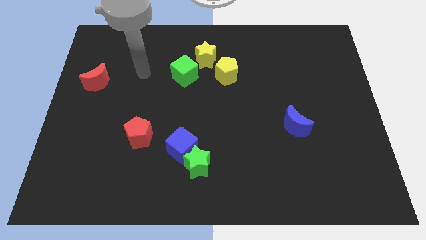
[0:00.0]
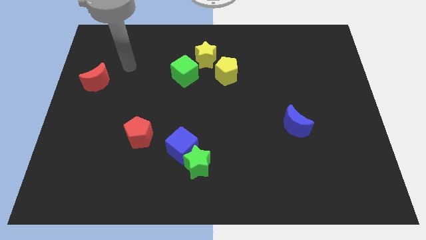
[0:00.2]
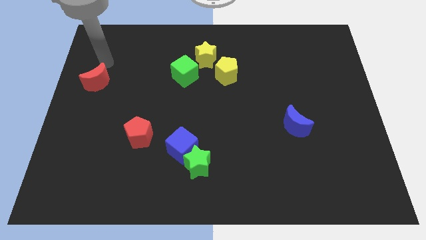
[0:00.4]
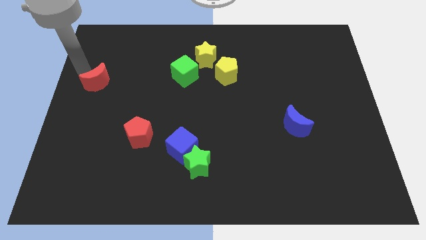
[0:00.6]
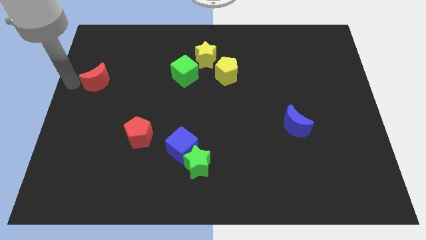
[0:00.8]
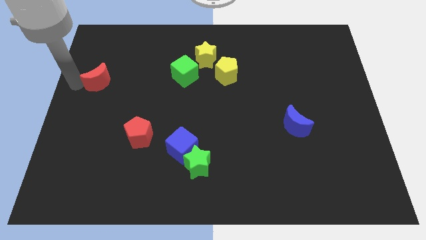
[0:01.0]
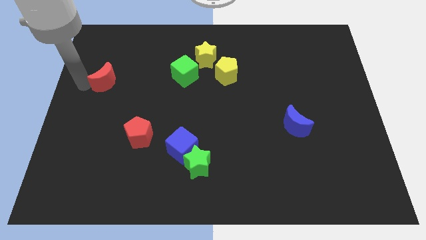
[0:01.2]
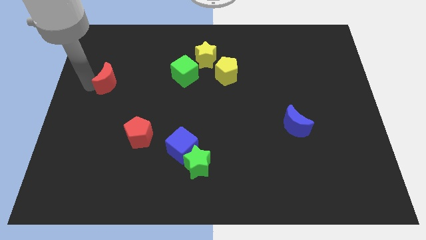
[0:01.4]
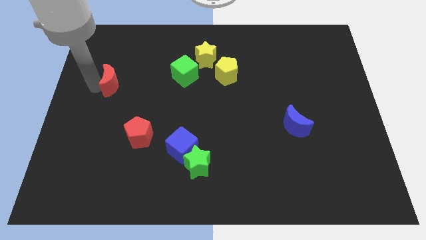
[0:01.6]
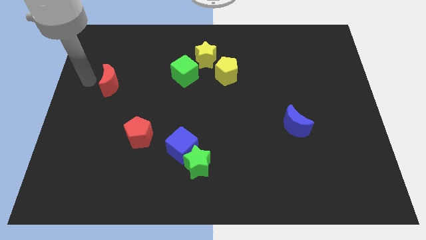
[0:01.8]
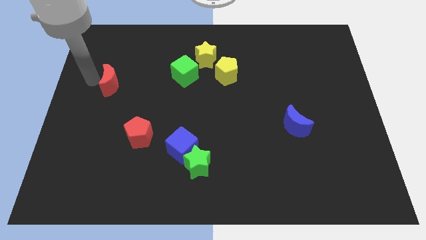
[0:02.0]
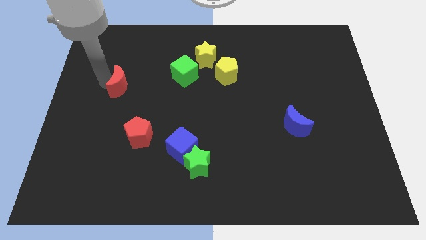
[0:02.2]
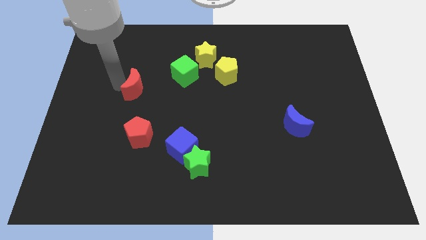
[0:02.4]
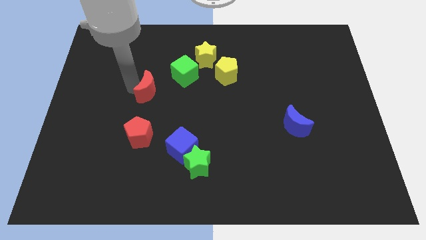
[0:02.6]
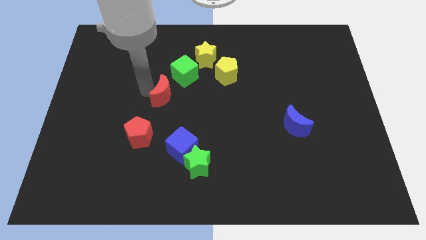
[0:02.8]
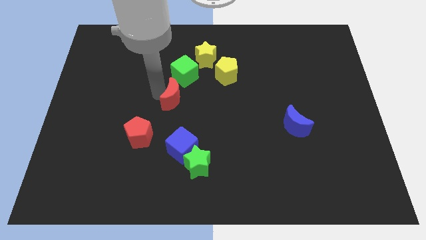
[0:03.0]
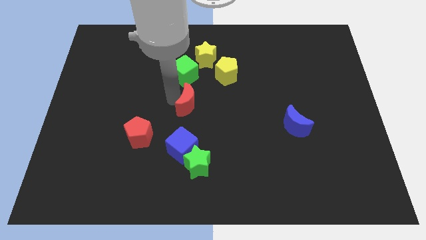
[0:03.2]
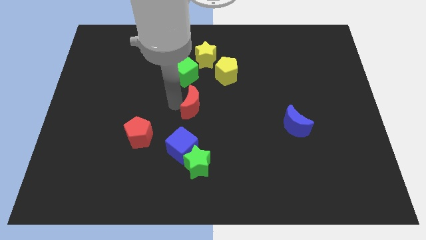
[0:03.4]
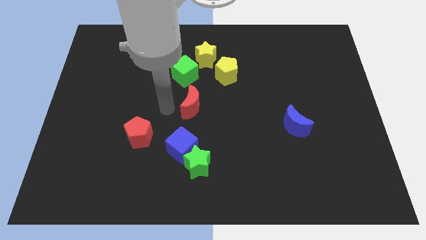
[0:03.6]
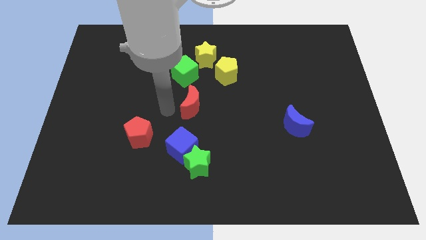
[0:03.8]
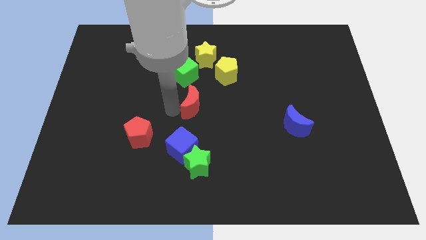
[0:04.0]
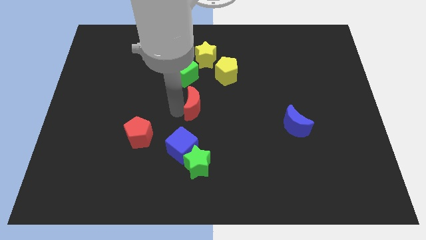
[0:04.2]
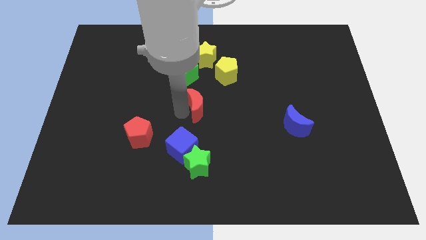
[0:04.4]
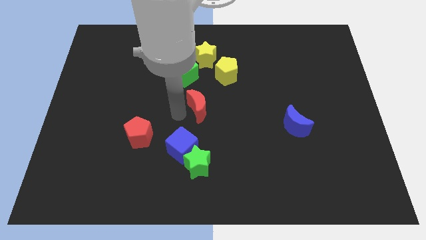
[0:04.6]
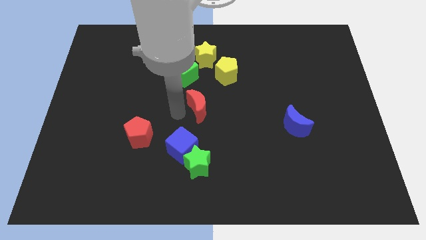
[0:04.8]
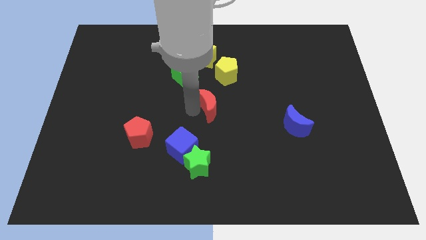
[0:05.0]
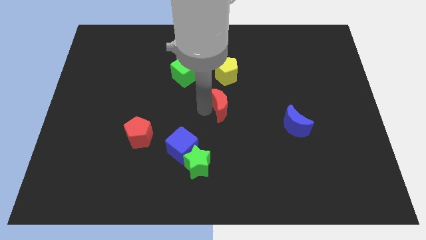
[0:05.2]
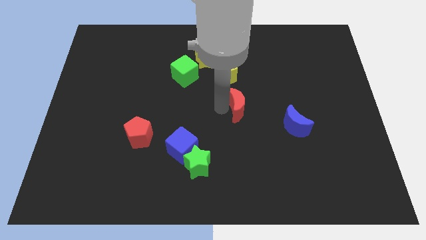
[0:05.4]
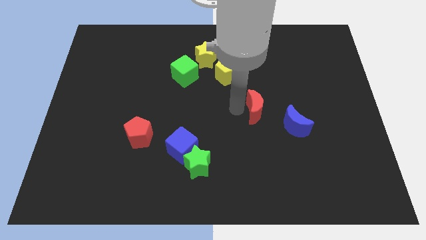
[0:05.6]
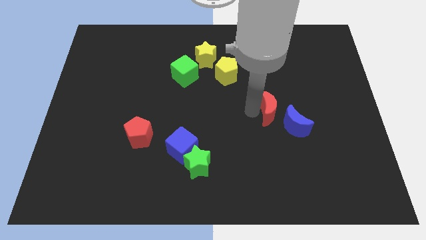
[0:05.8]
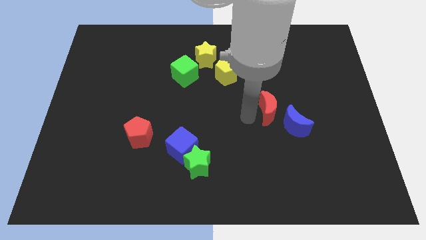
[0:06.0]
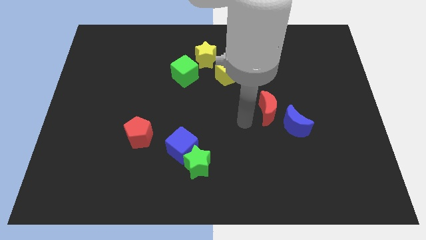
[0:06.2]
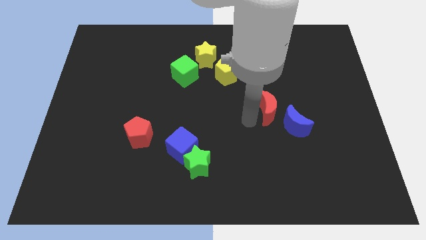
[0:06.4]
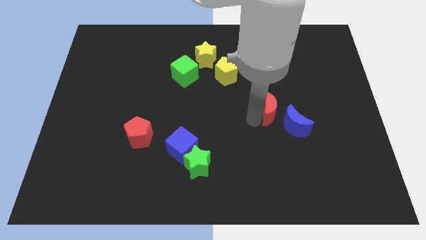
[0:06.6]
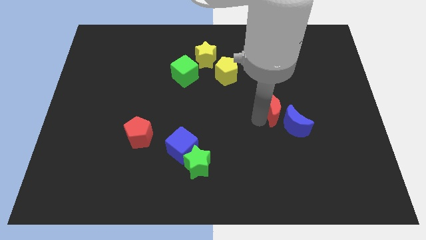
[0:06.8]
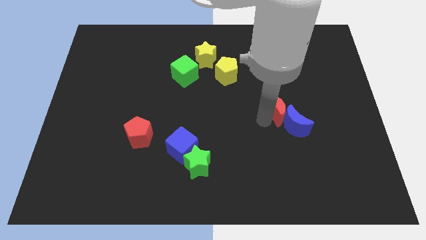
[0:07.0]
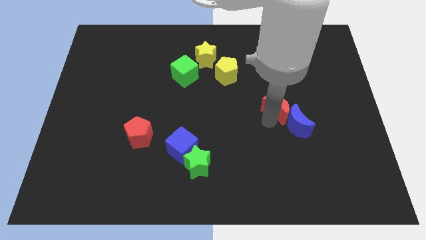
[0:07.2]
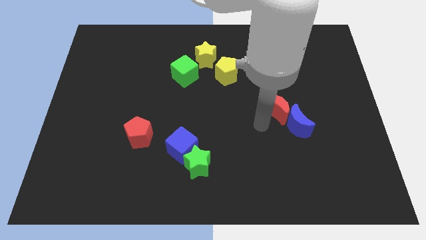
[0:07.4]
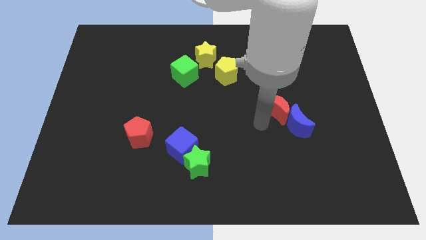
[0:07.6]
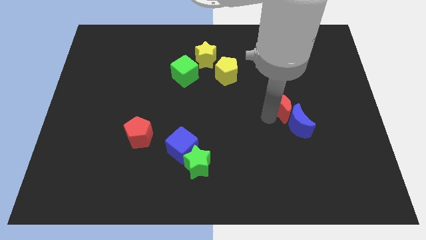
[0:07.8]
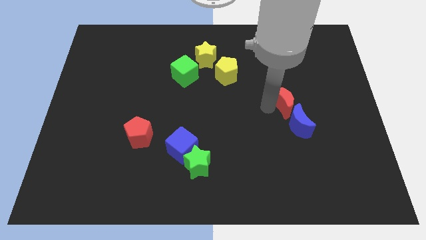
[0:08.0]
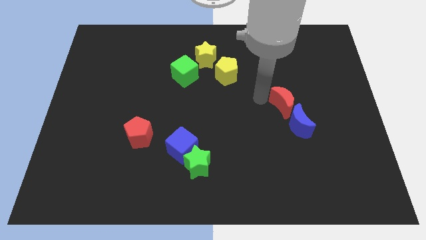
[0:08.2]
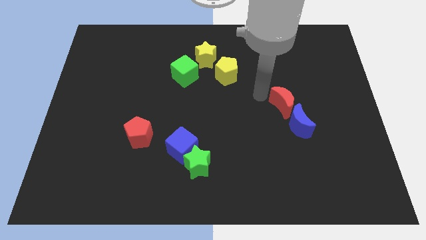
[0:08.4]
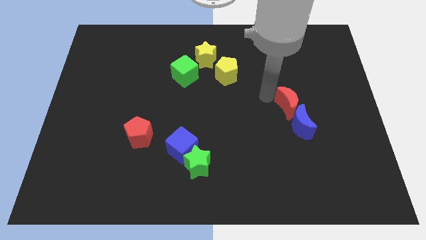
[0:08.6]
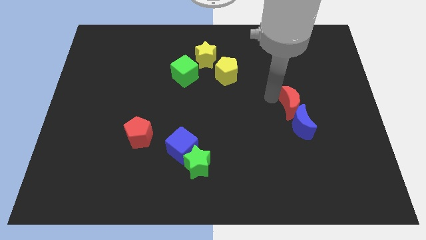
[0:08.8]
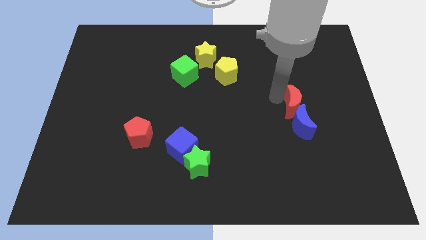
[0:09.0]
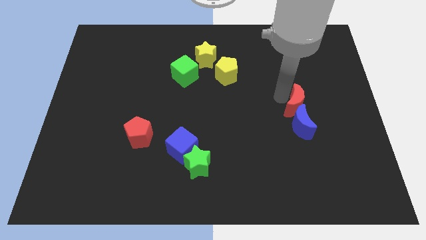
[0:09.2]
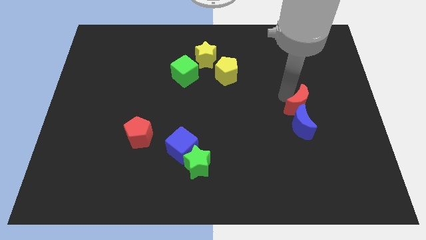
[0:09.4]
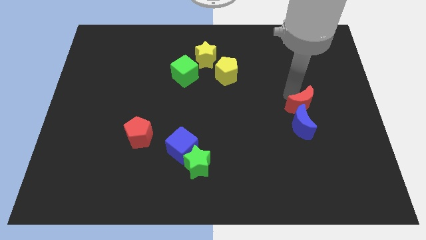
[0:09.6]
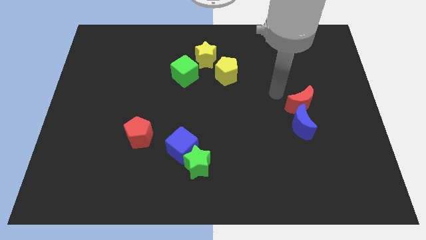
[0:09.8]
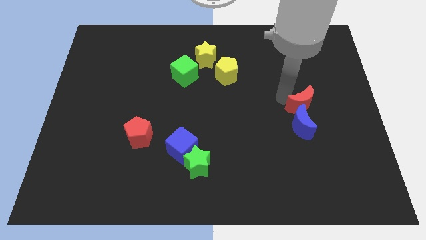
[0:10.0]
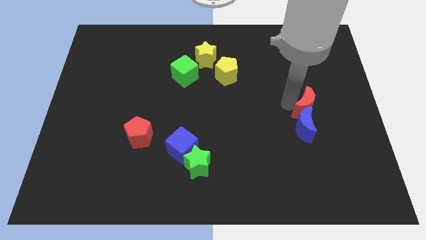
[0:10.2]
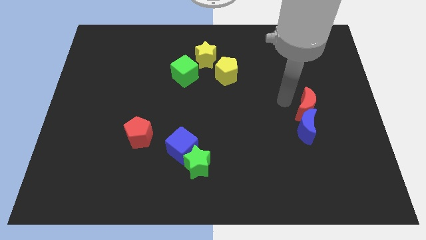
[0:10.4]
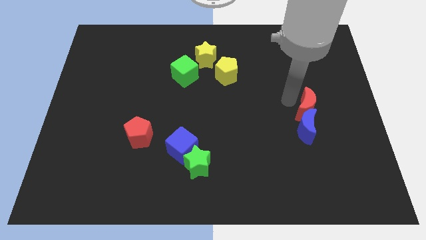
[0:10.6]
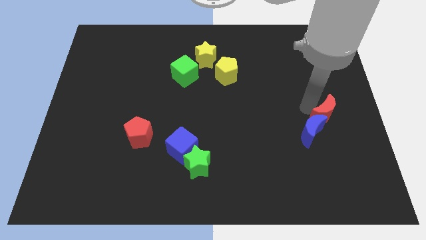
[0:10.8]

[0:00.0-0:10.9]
push the red moon just right of the blue moon

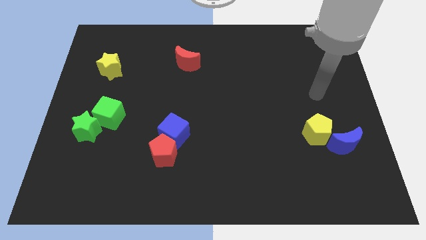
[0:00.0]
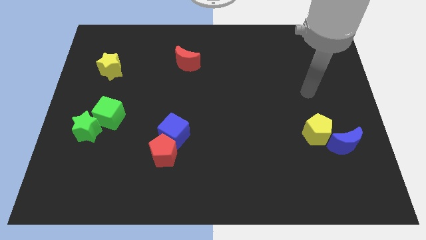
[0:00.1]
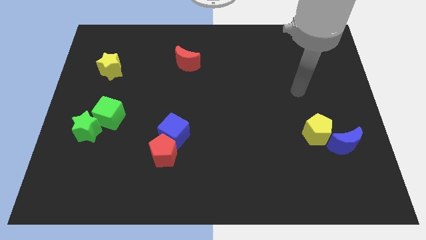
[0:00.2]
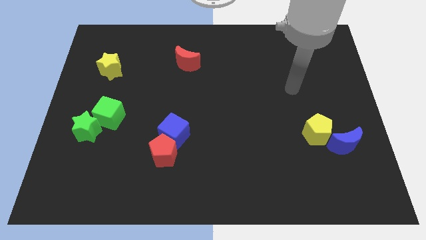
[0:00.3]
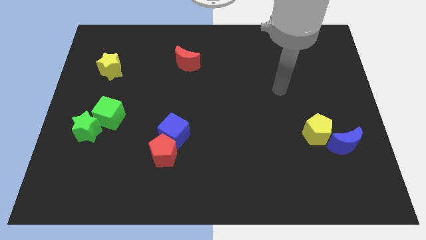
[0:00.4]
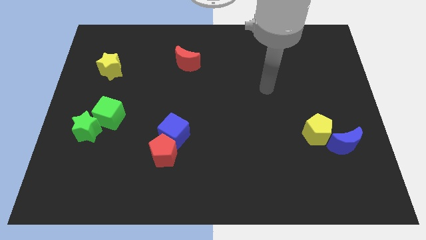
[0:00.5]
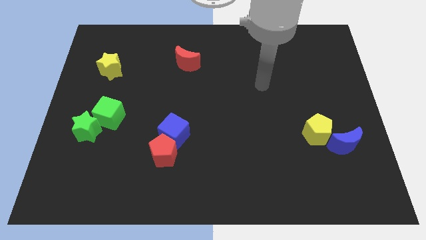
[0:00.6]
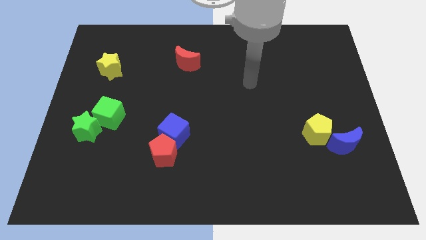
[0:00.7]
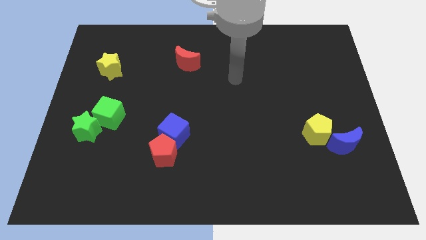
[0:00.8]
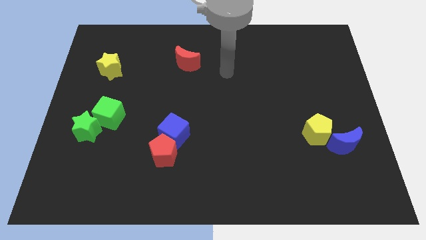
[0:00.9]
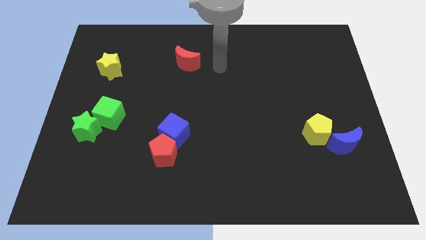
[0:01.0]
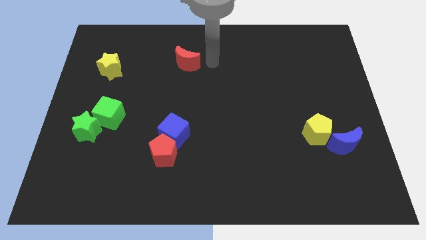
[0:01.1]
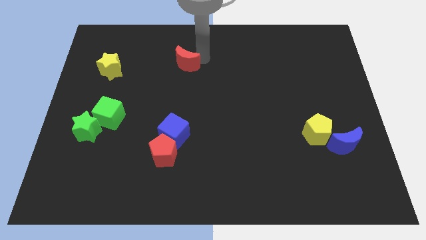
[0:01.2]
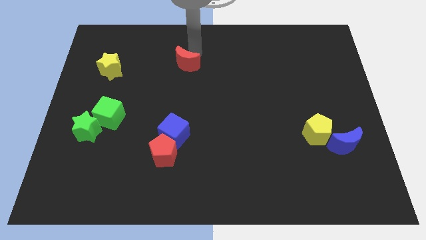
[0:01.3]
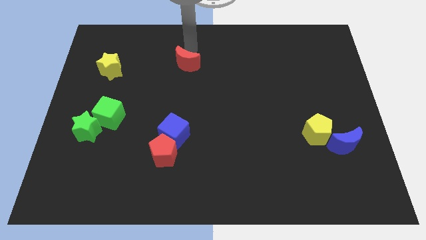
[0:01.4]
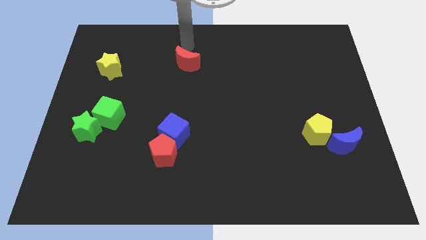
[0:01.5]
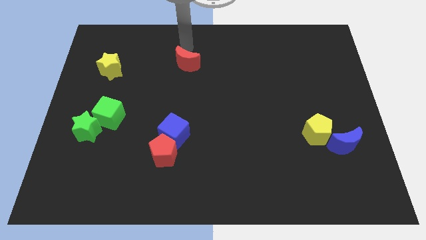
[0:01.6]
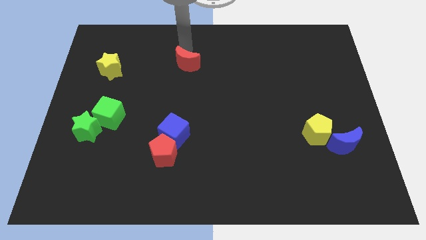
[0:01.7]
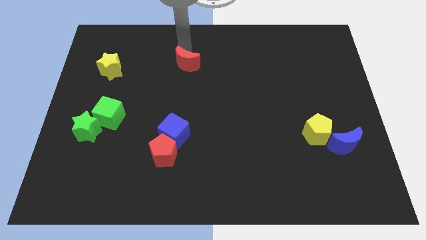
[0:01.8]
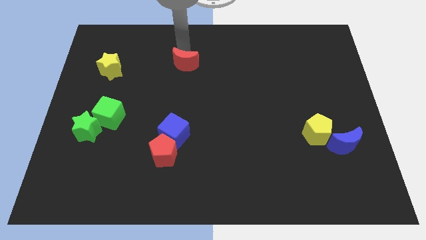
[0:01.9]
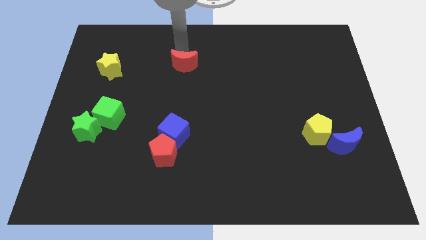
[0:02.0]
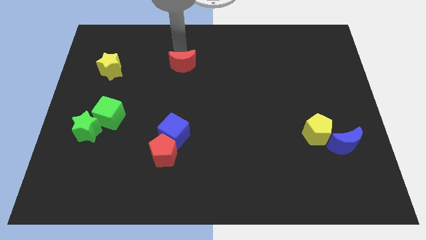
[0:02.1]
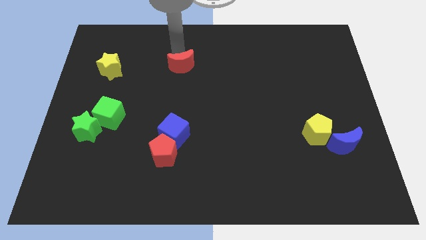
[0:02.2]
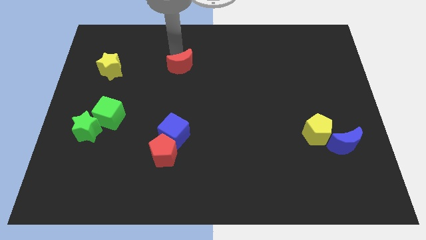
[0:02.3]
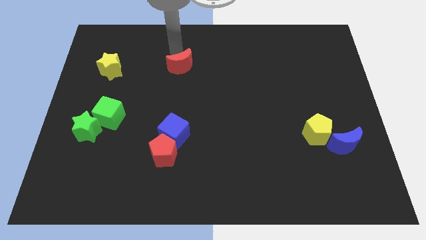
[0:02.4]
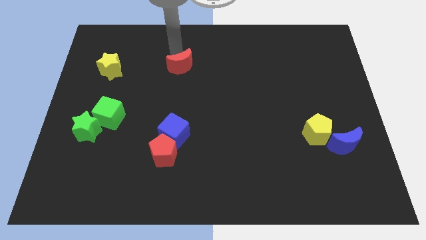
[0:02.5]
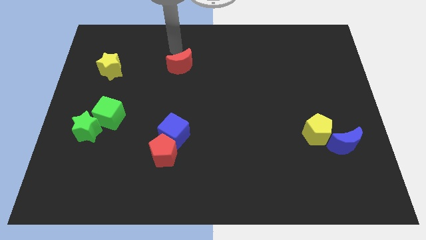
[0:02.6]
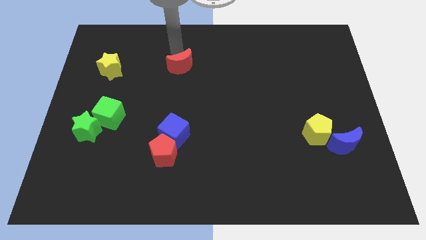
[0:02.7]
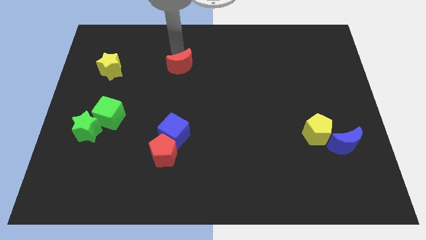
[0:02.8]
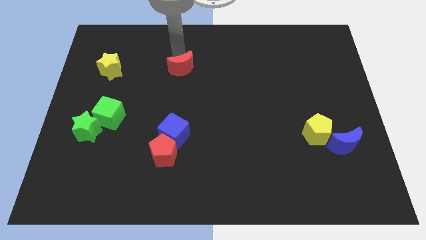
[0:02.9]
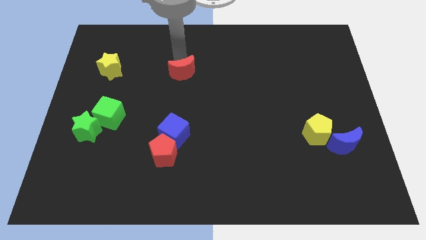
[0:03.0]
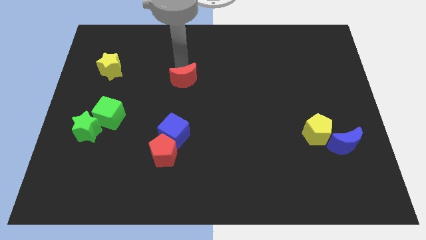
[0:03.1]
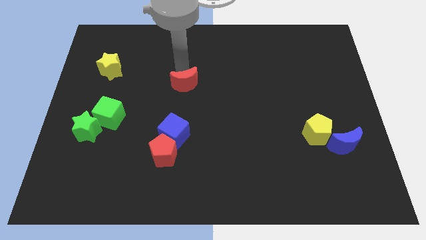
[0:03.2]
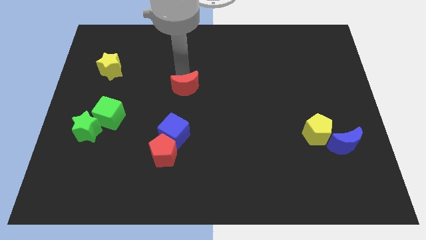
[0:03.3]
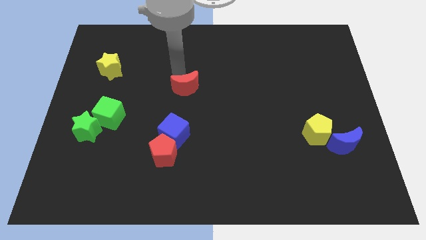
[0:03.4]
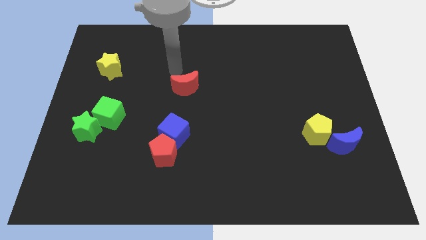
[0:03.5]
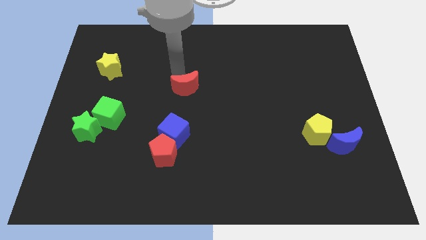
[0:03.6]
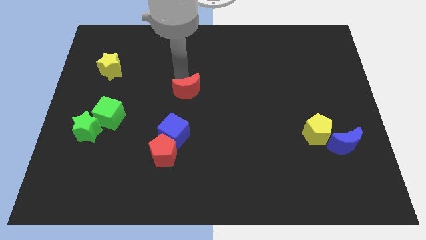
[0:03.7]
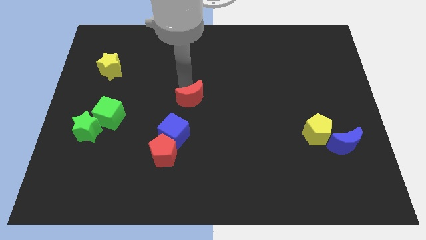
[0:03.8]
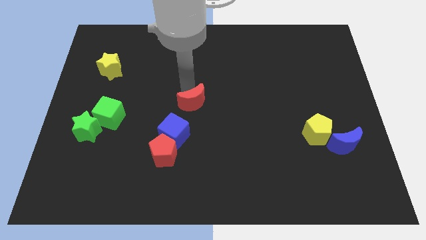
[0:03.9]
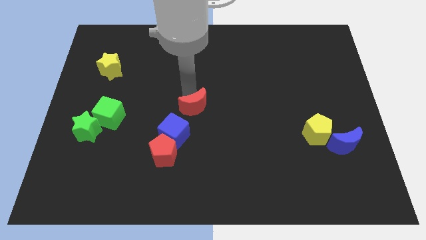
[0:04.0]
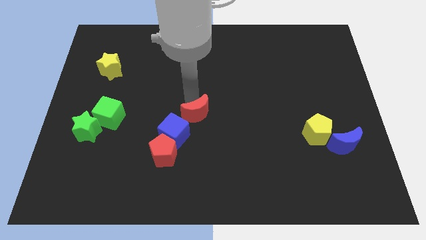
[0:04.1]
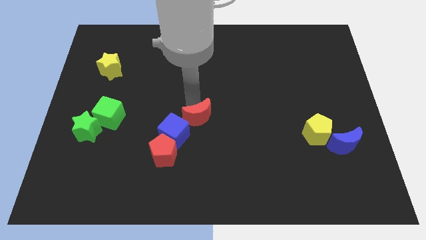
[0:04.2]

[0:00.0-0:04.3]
put the red moon to the top right of the red pentagon
